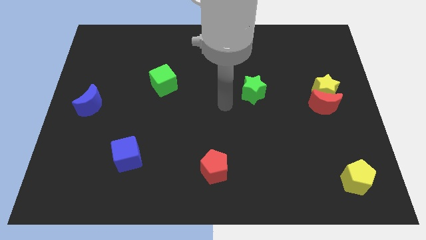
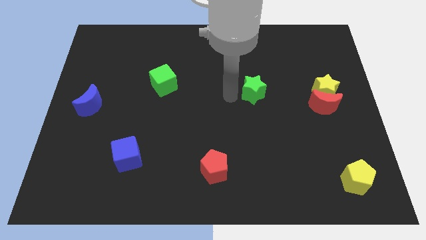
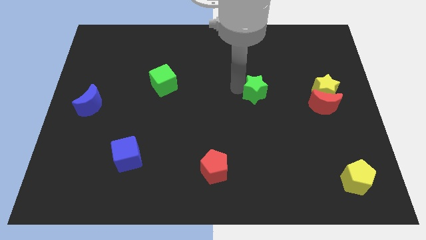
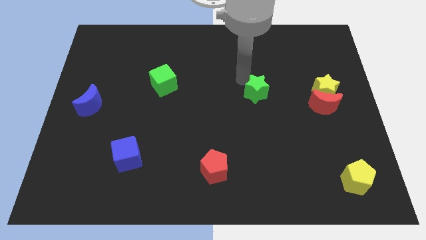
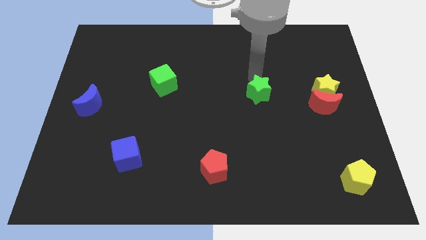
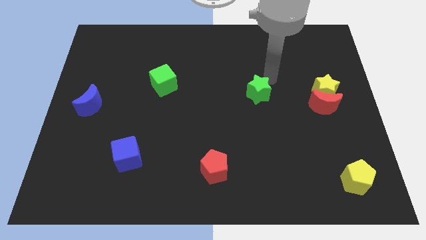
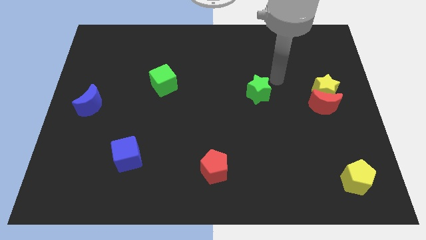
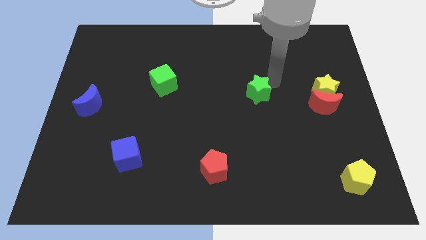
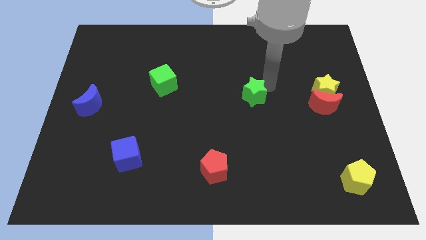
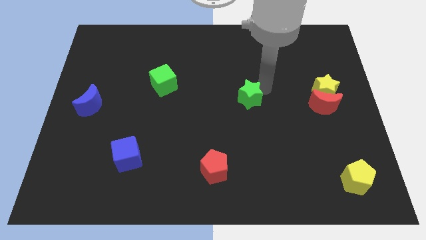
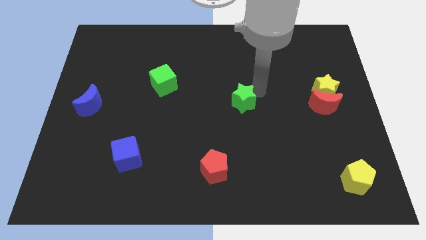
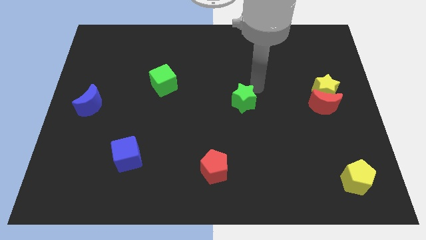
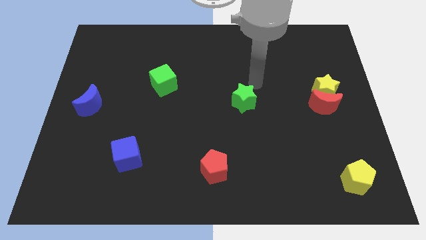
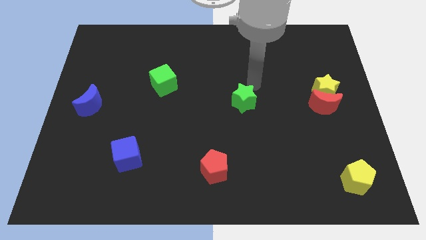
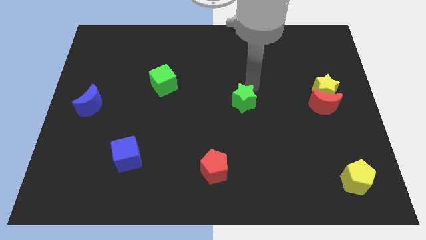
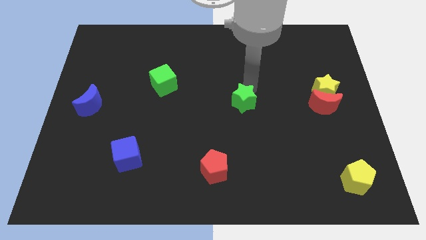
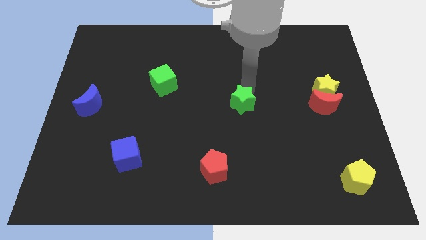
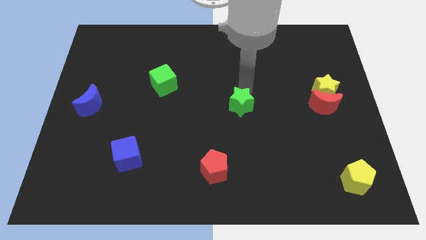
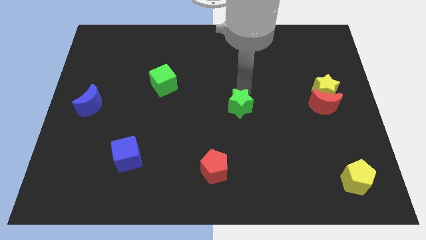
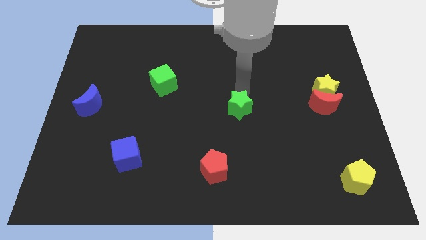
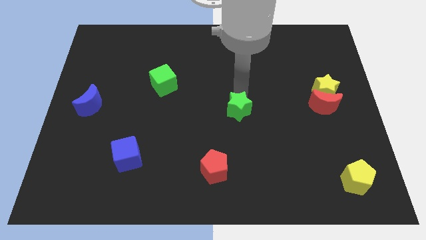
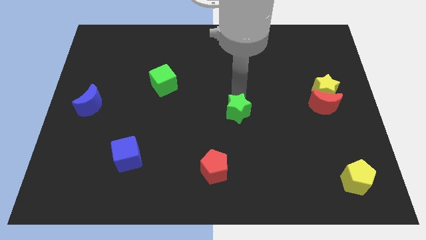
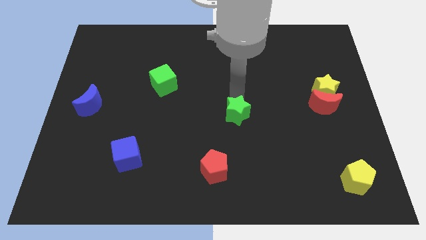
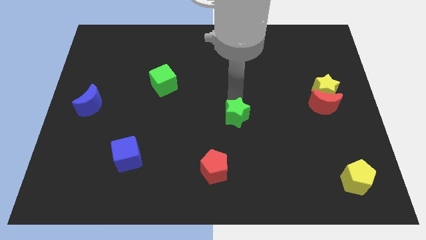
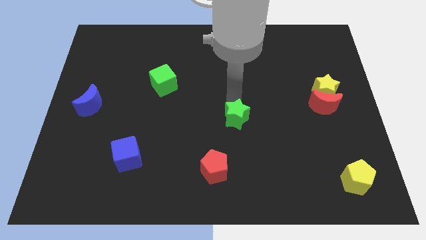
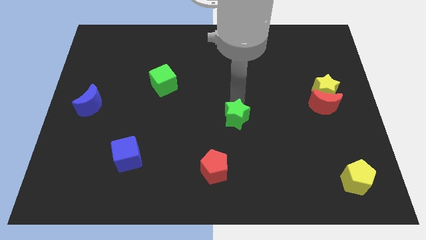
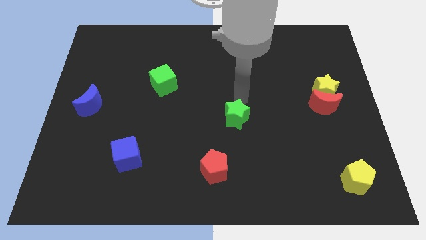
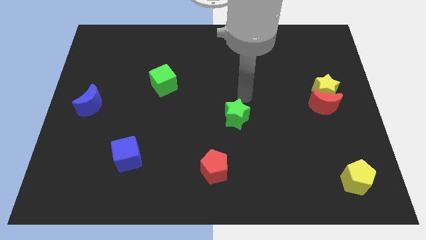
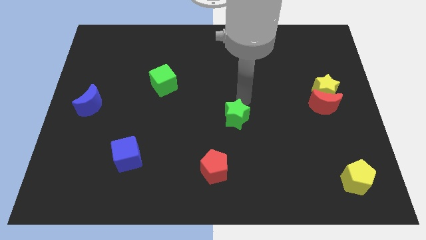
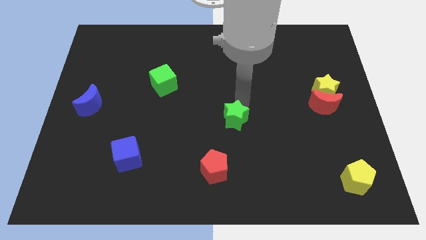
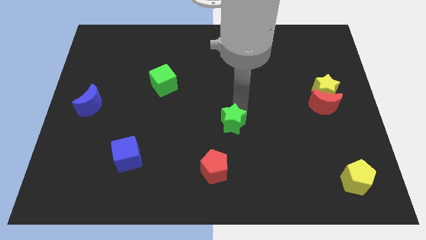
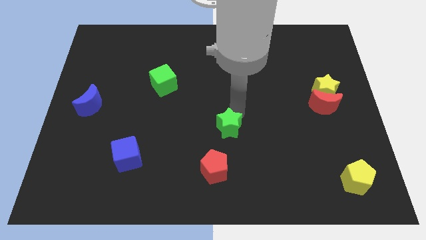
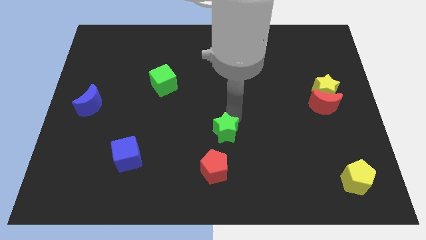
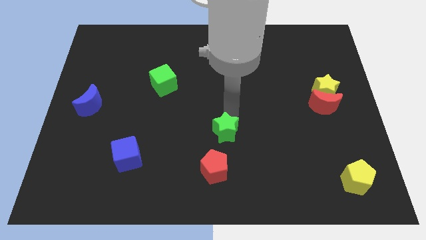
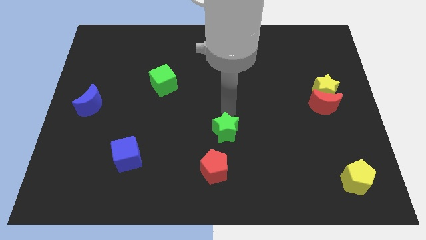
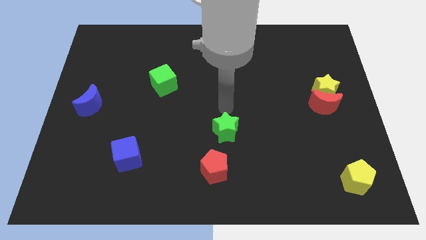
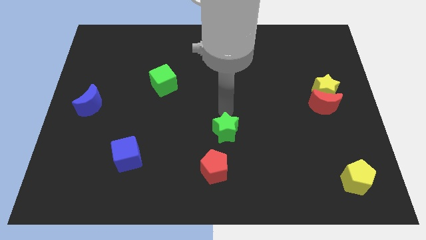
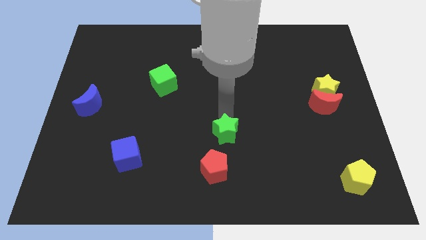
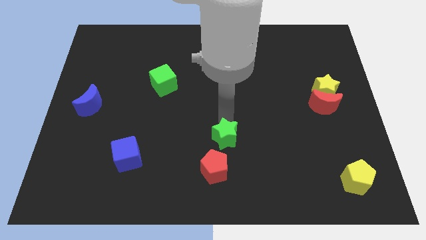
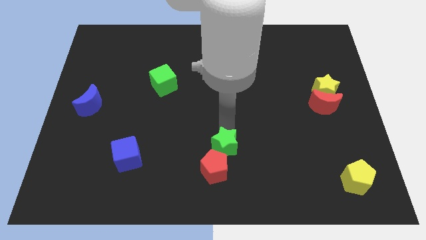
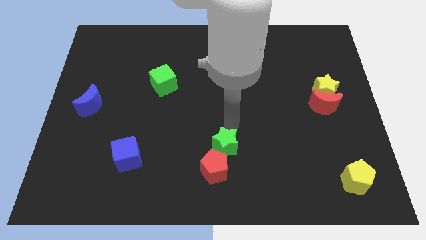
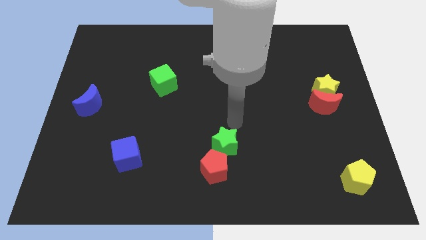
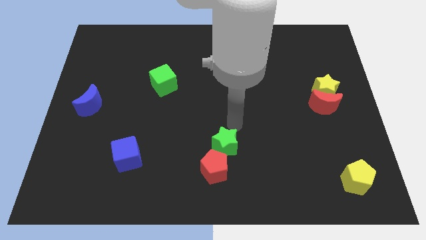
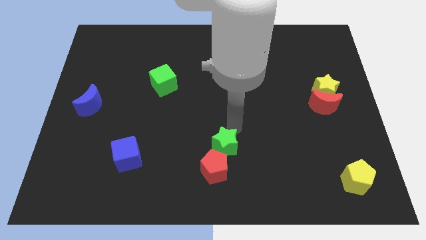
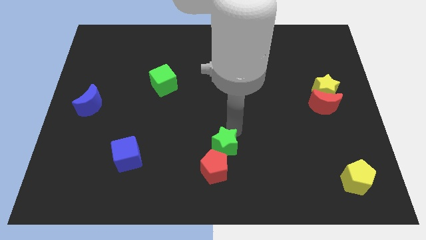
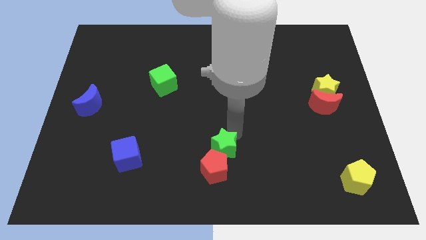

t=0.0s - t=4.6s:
push the green star to the red pentagon

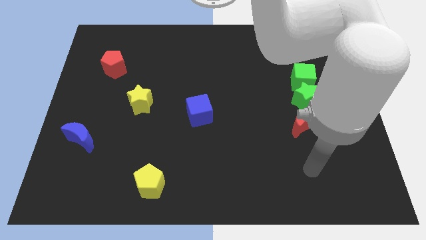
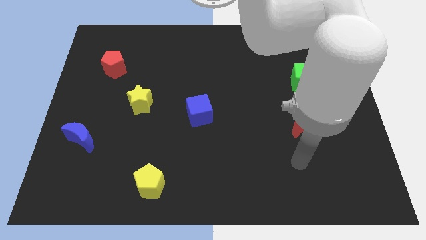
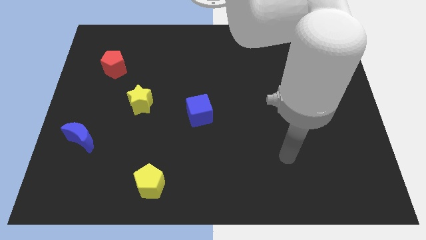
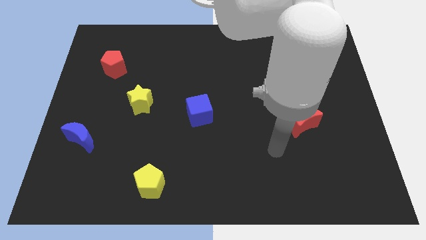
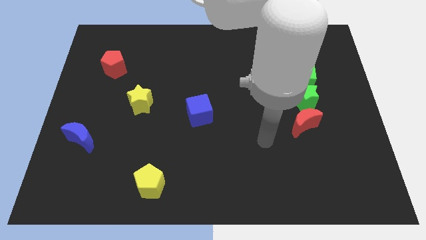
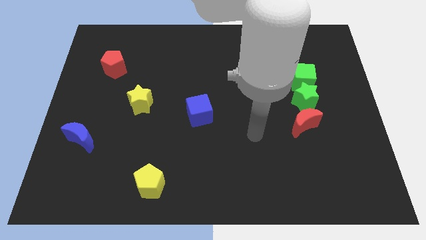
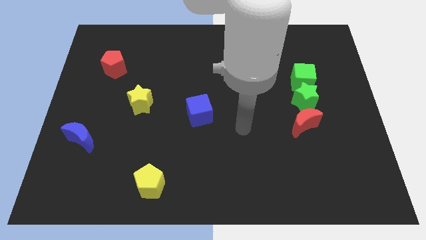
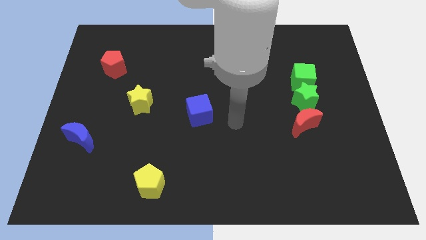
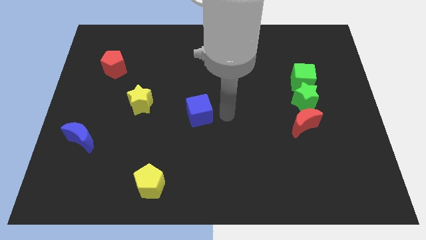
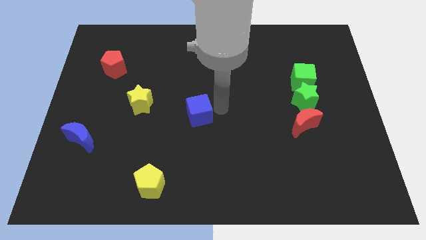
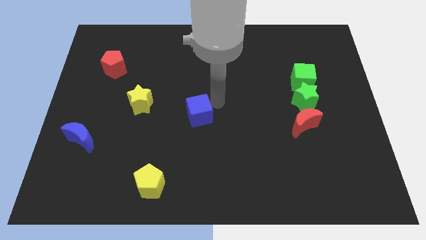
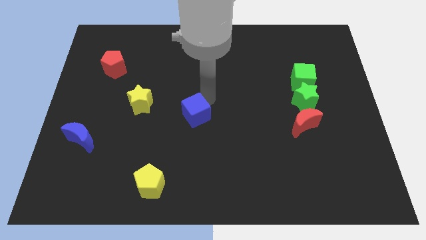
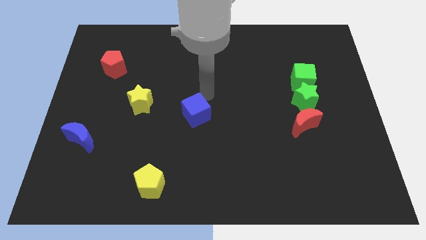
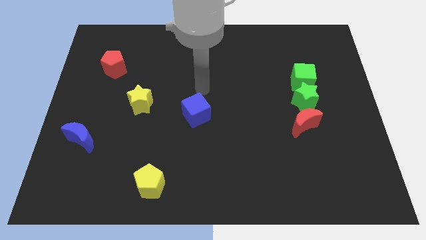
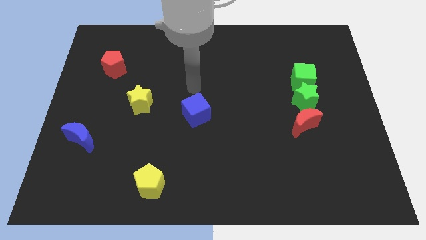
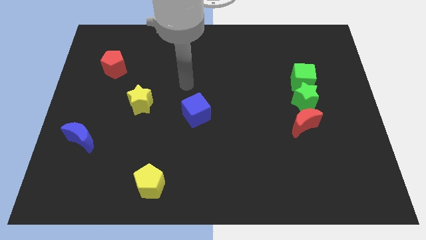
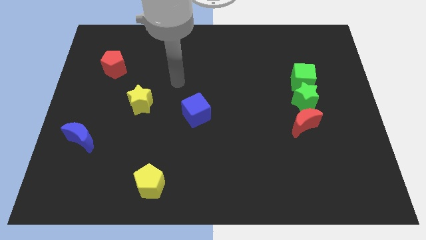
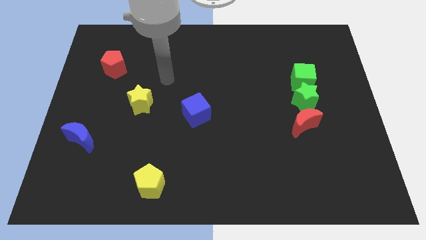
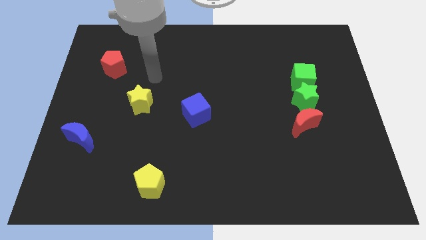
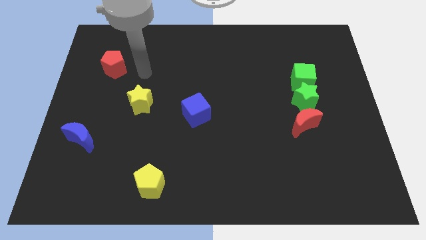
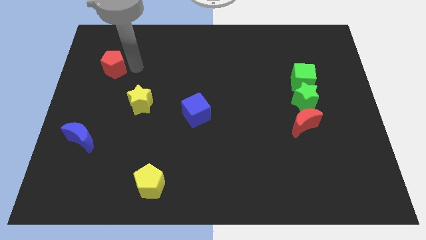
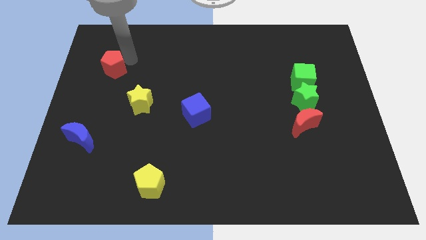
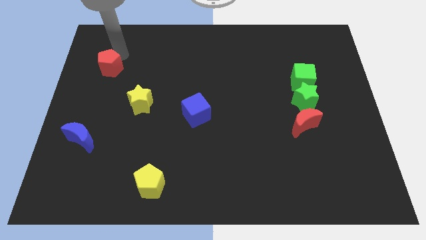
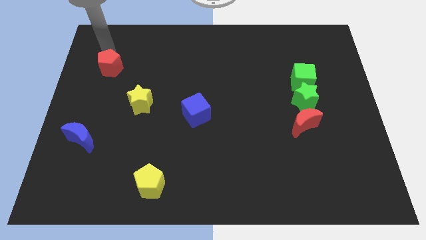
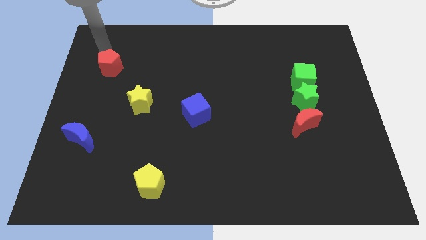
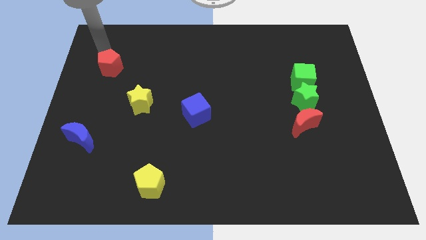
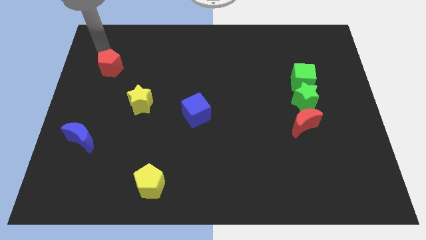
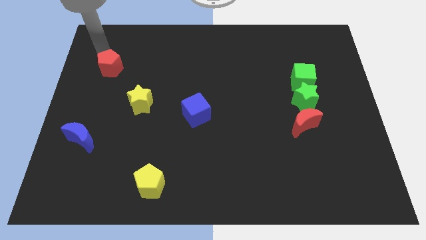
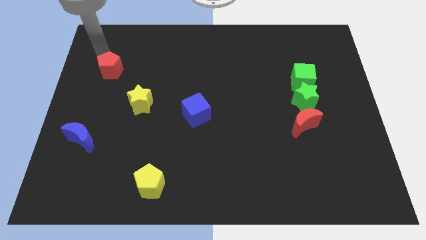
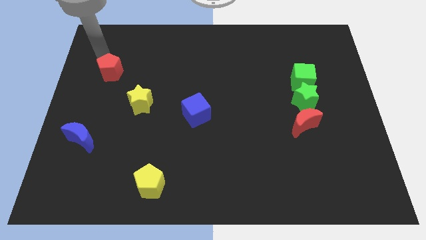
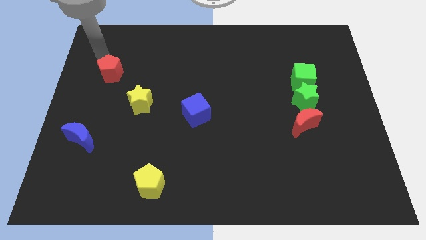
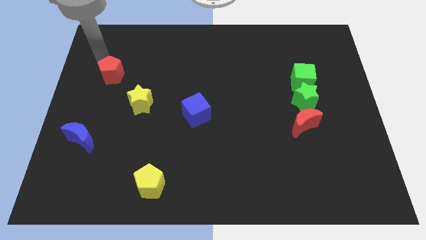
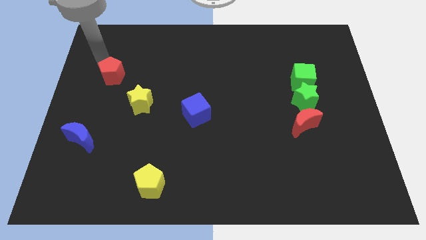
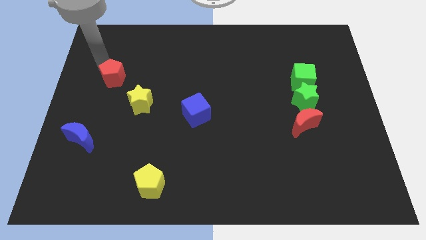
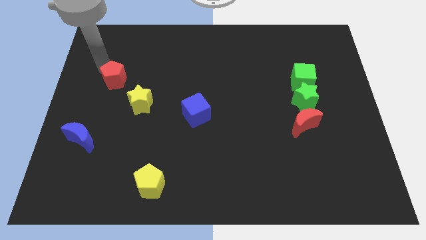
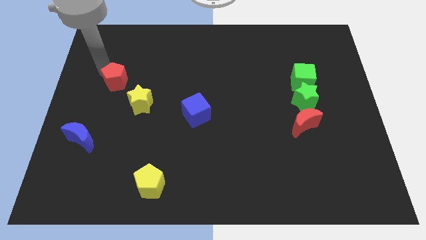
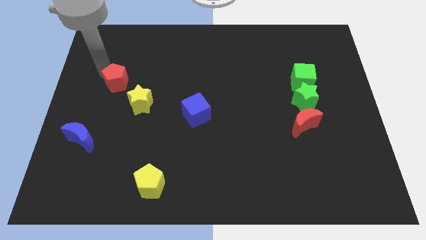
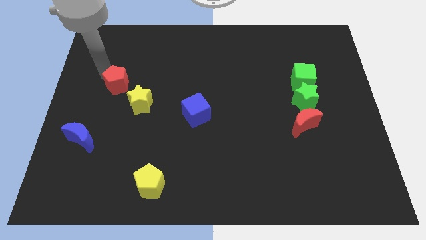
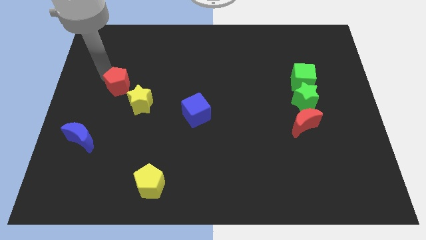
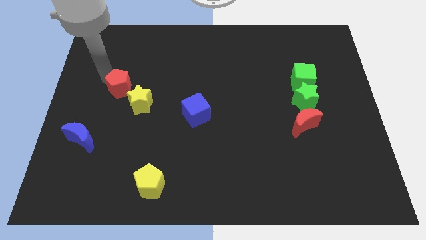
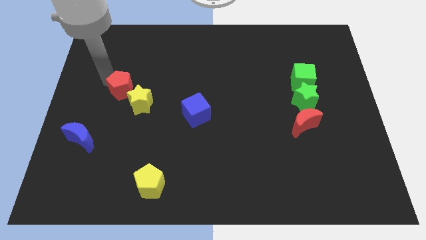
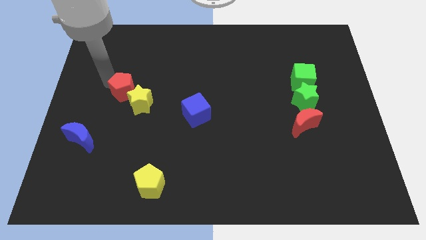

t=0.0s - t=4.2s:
slide the red pentagon close to the yellow star
